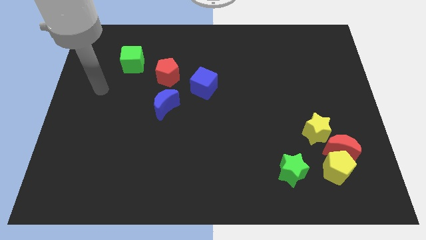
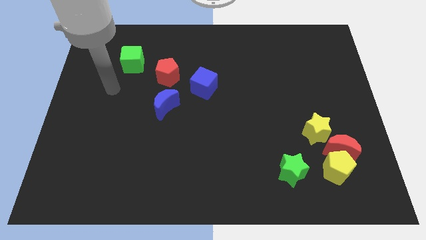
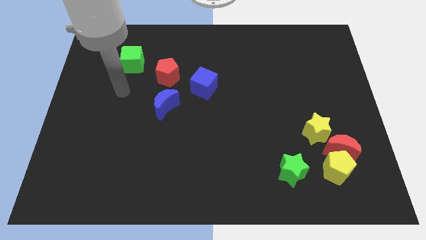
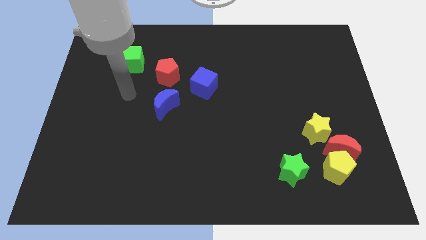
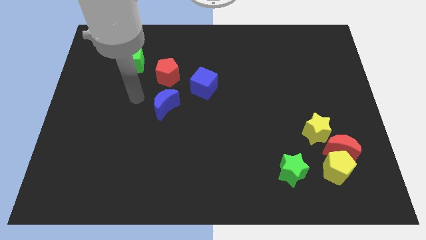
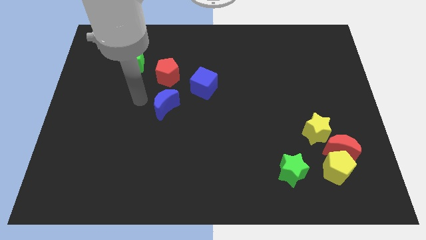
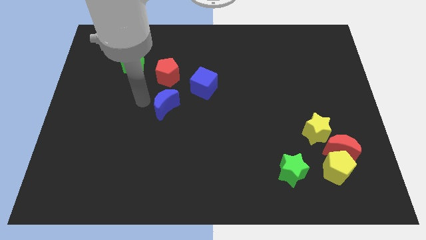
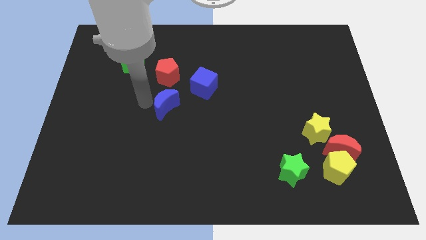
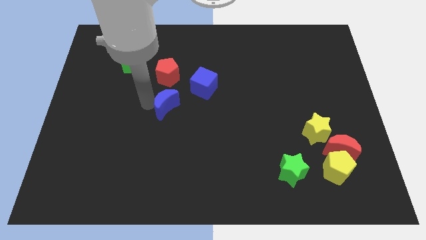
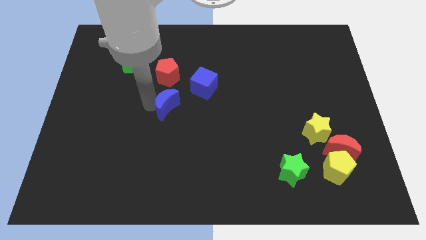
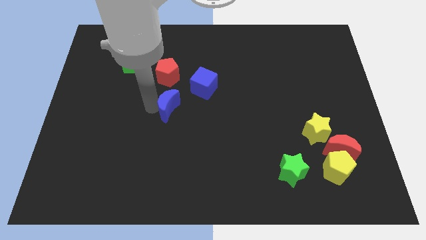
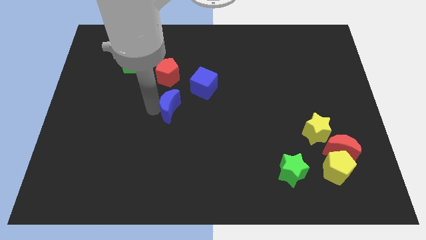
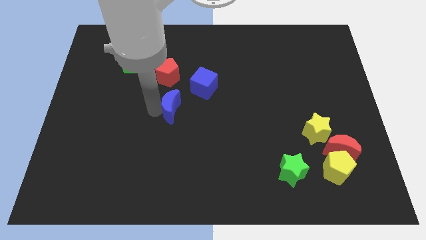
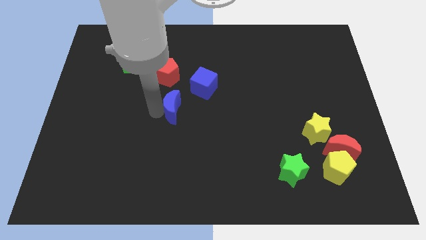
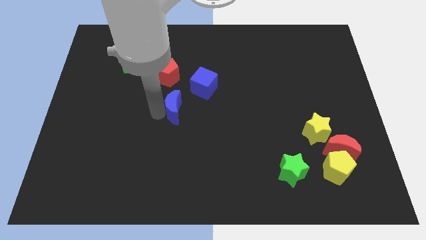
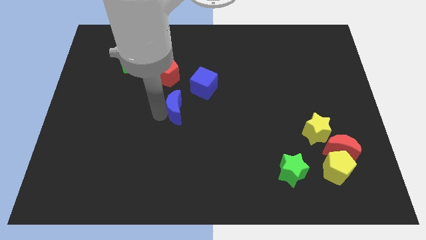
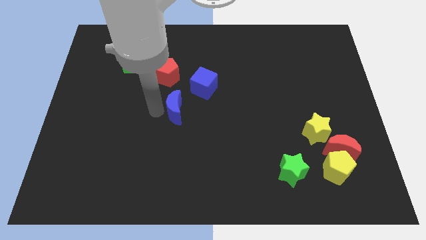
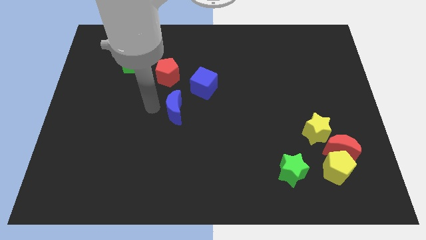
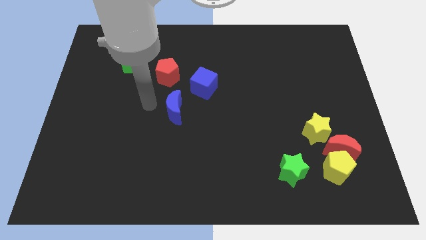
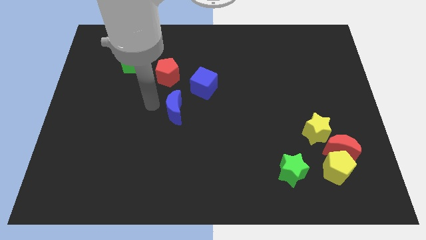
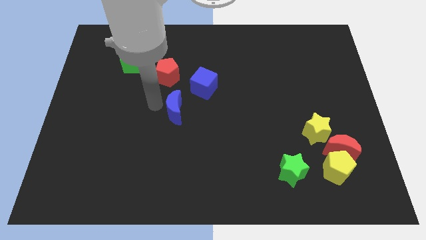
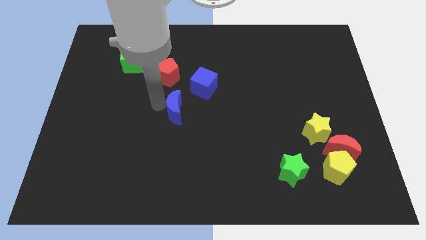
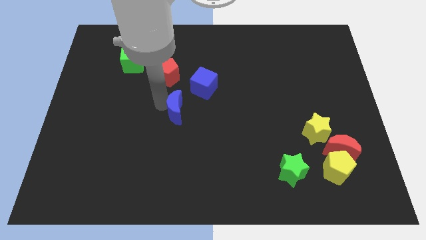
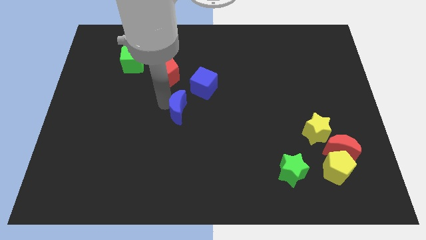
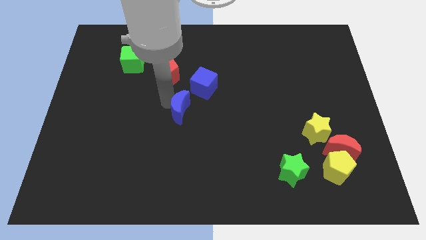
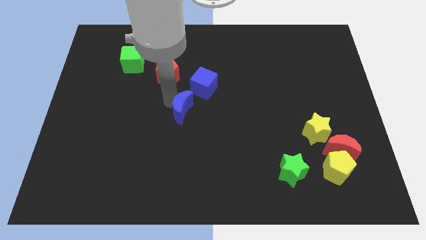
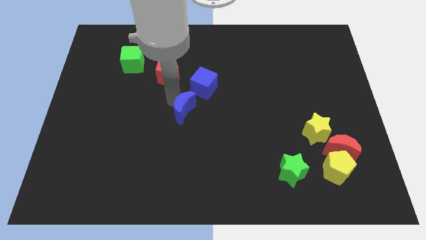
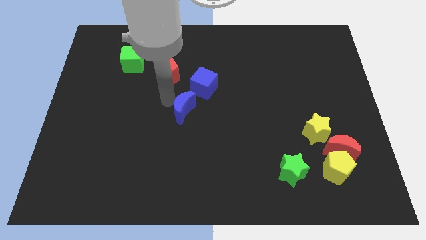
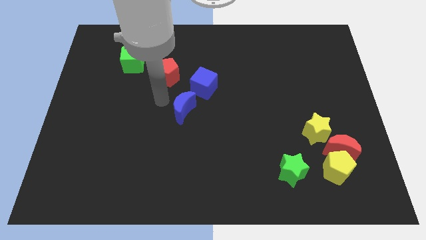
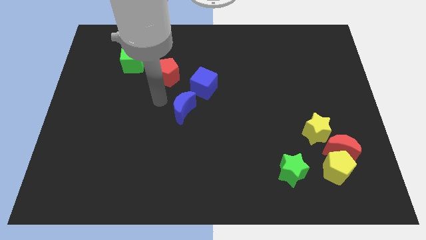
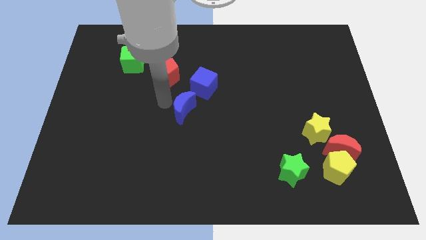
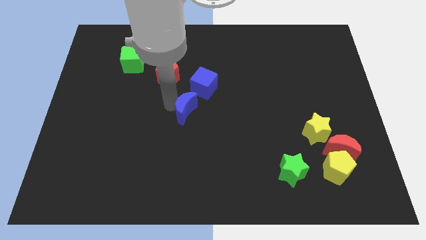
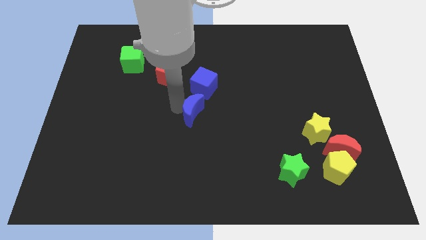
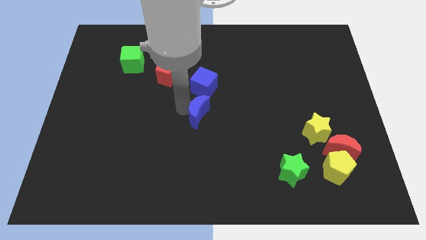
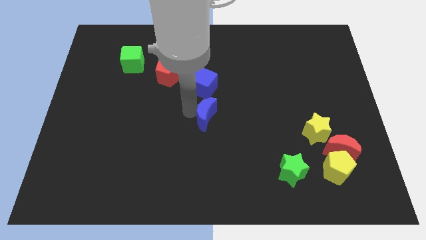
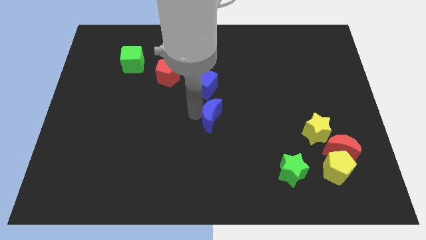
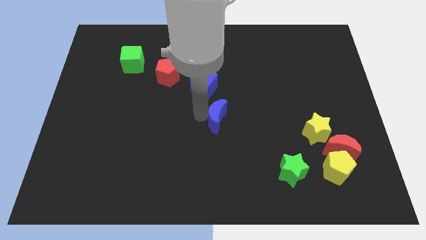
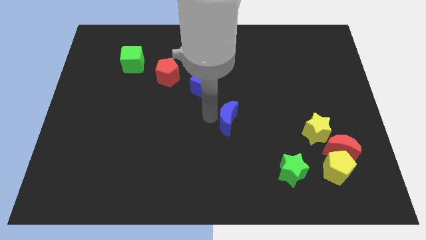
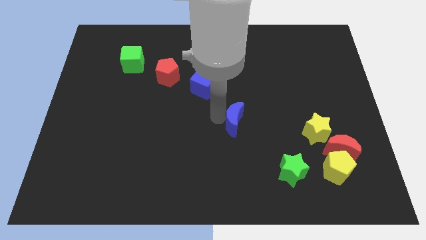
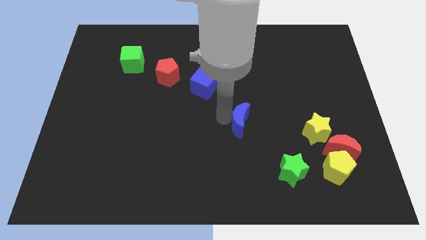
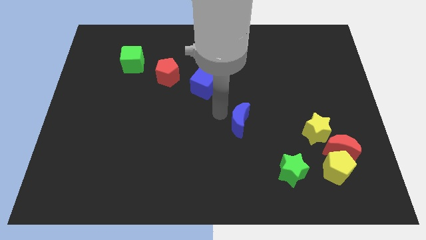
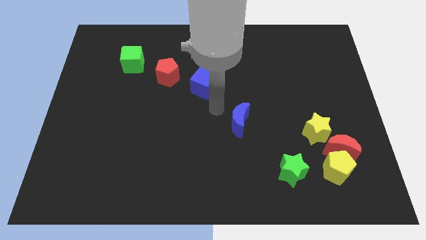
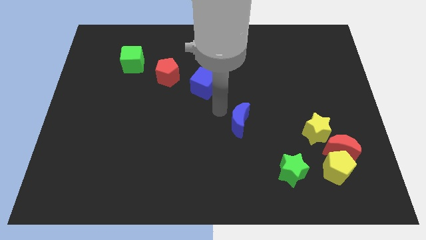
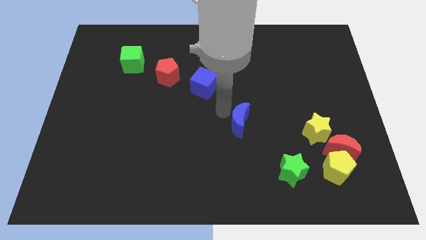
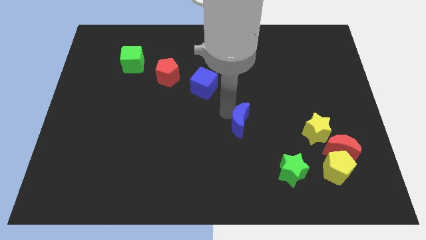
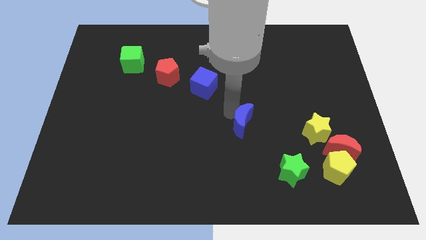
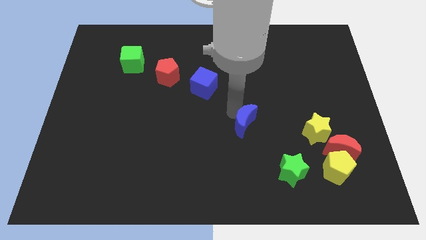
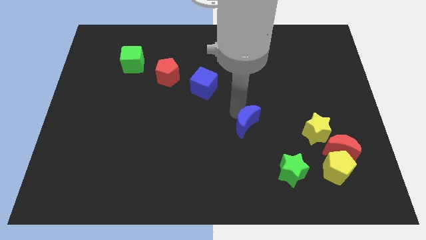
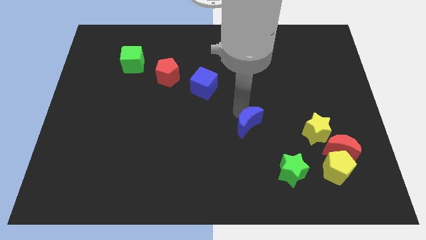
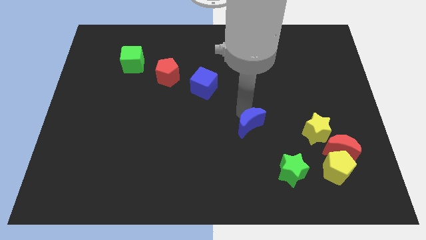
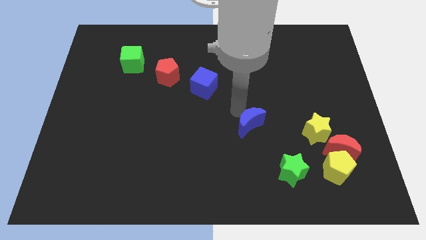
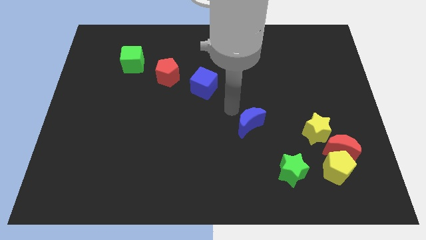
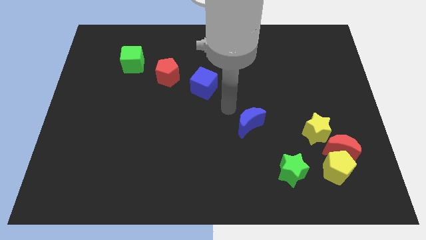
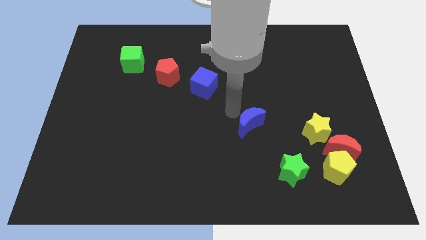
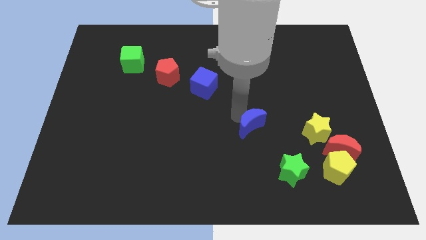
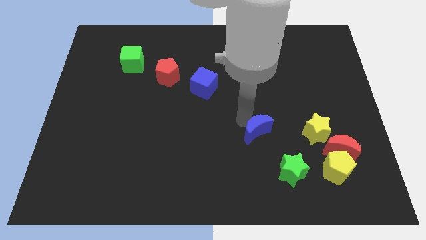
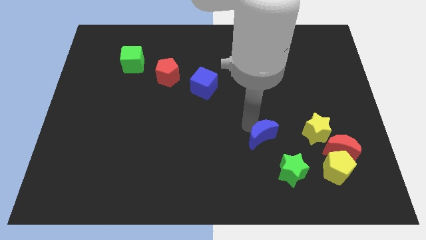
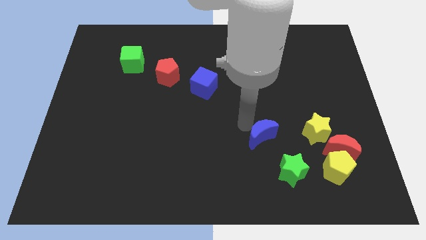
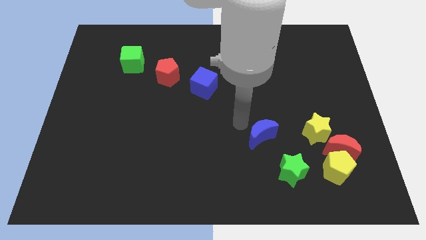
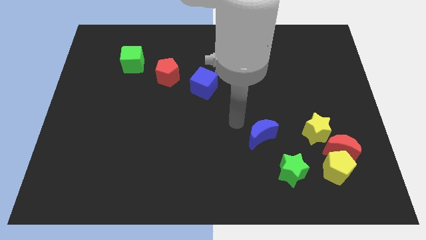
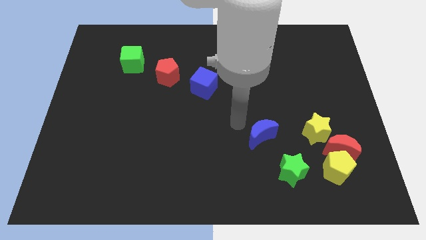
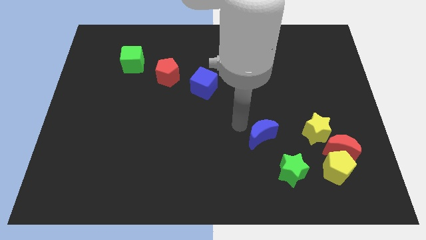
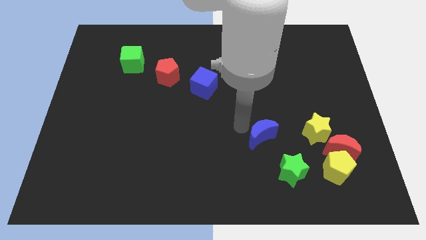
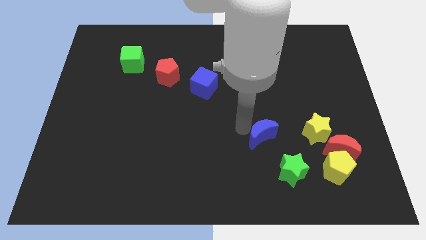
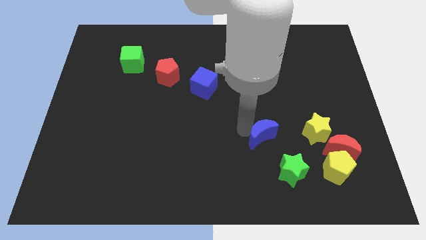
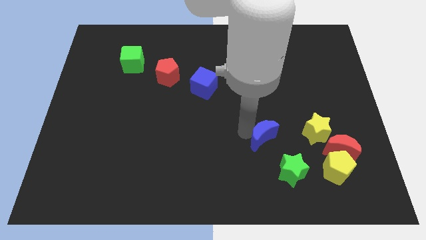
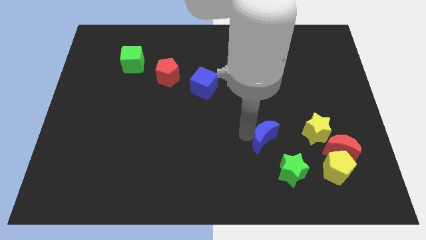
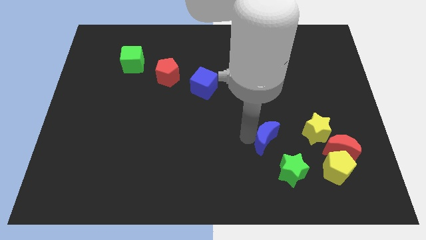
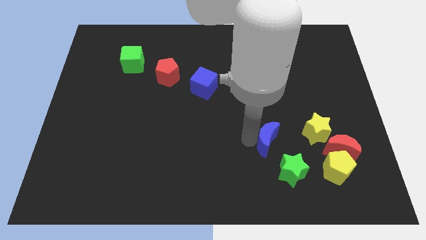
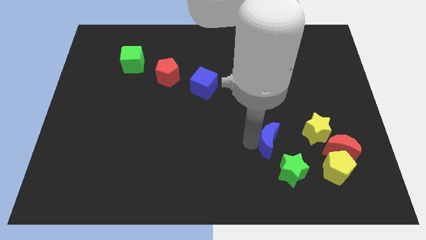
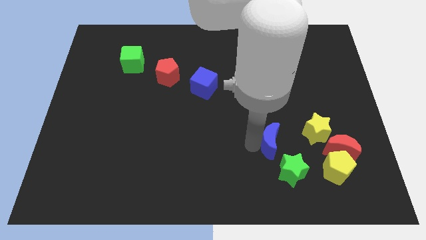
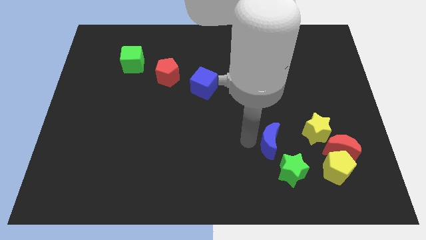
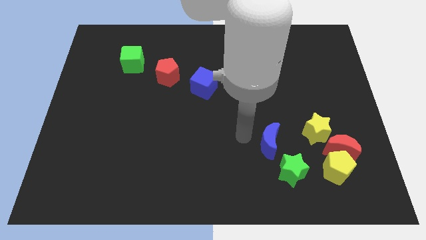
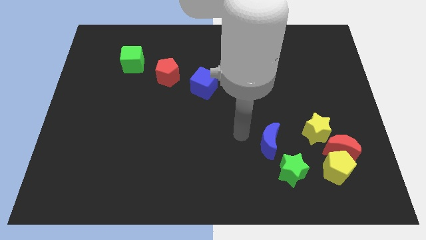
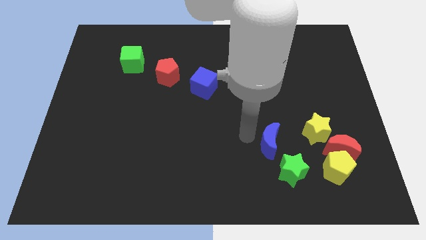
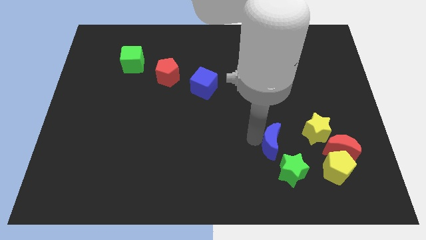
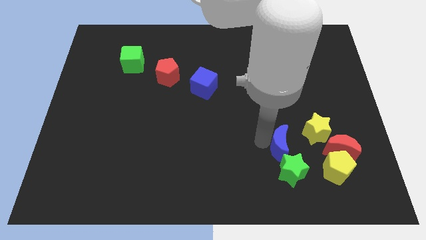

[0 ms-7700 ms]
put the blue moon to the bottom left of the yellow star
